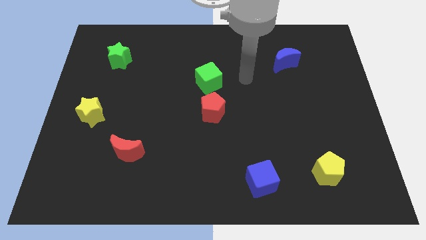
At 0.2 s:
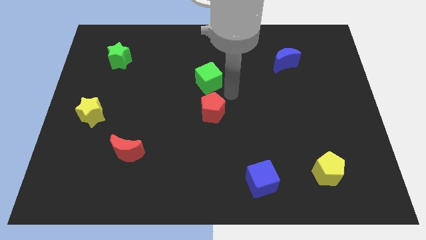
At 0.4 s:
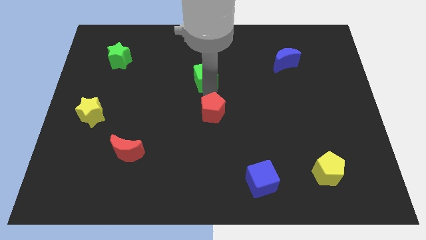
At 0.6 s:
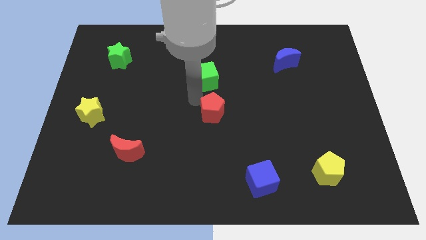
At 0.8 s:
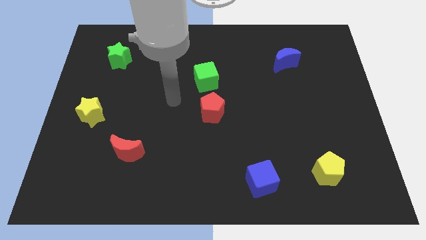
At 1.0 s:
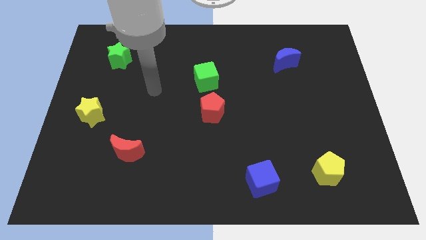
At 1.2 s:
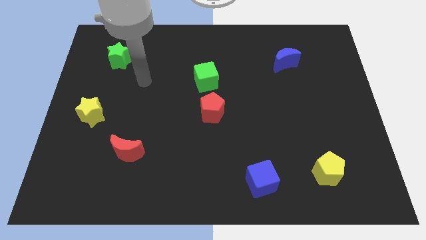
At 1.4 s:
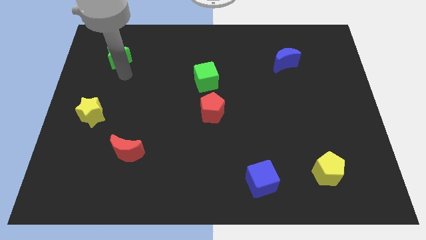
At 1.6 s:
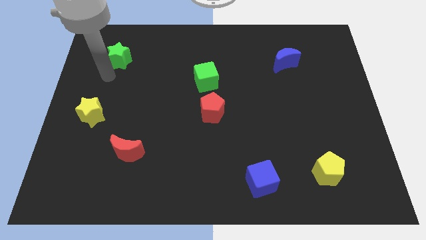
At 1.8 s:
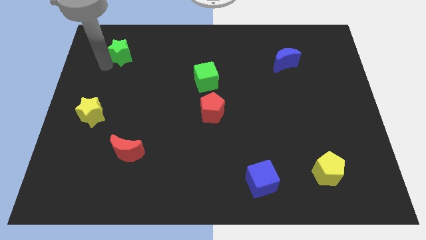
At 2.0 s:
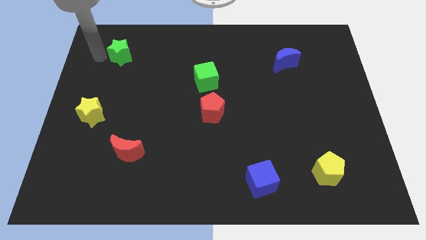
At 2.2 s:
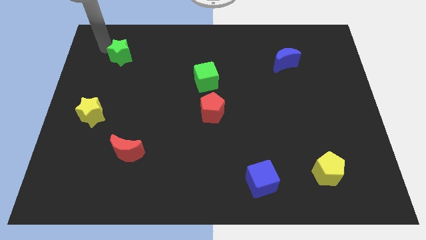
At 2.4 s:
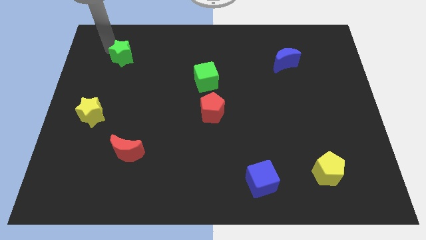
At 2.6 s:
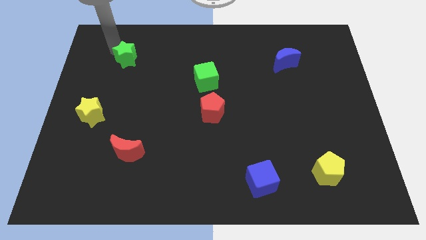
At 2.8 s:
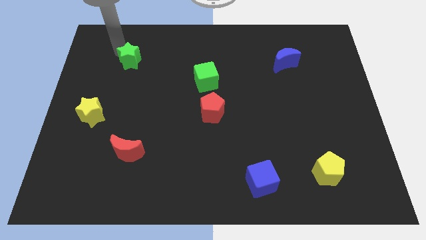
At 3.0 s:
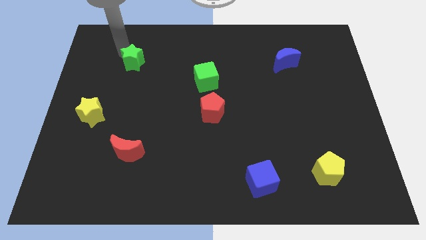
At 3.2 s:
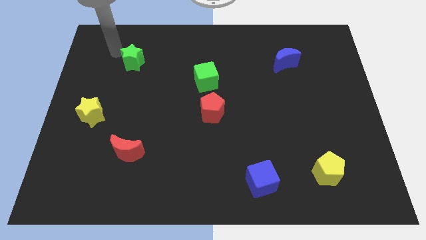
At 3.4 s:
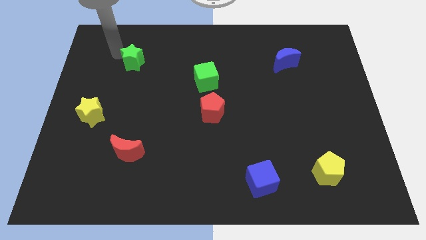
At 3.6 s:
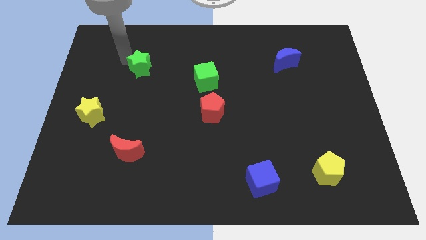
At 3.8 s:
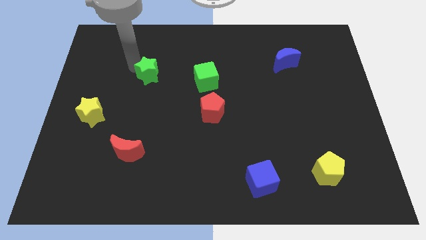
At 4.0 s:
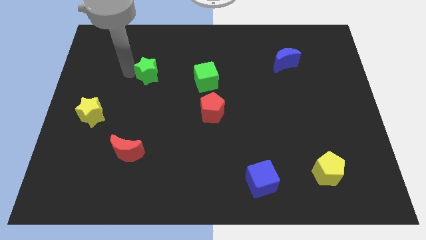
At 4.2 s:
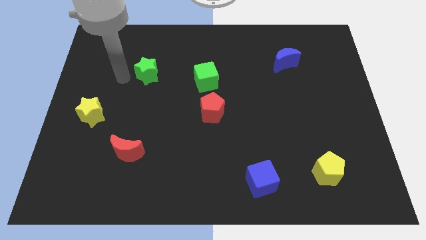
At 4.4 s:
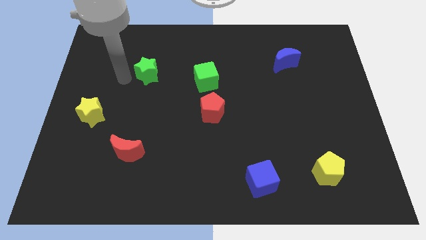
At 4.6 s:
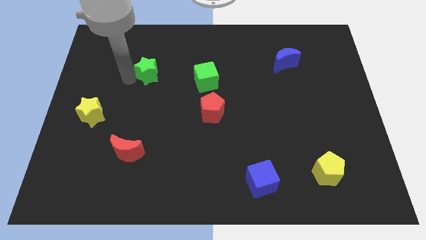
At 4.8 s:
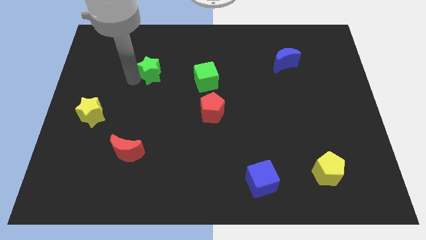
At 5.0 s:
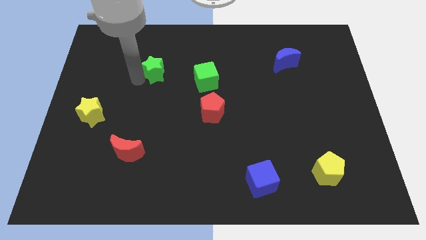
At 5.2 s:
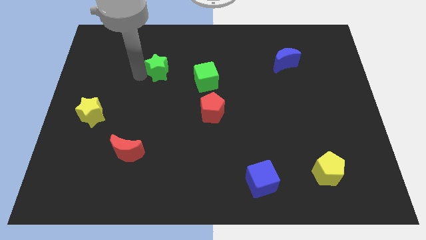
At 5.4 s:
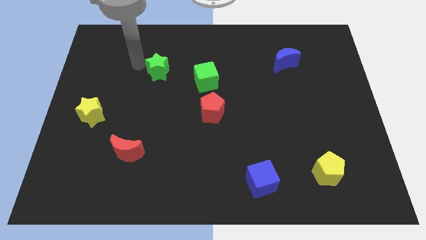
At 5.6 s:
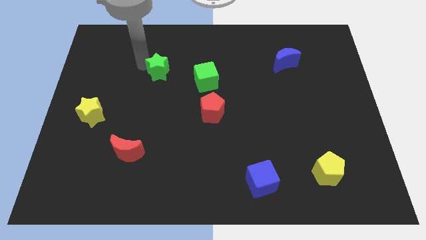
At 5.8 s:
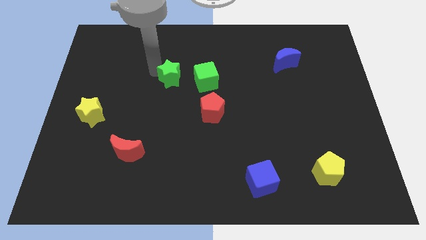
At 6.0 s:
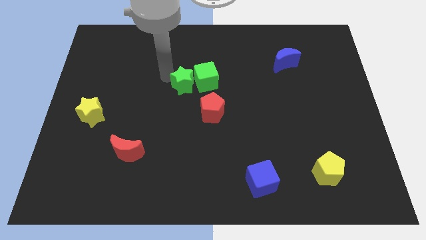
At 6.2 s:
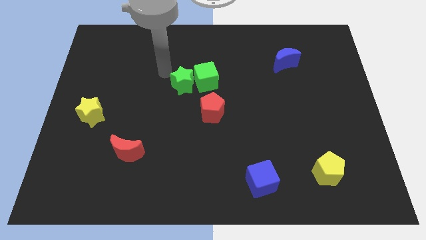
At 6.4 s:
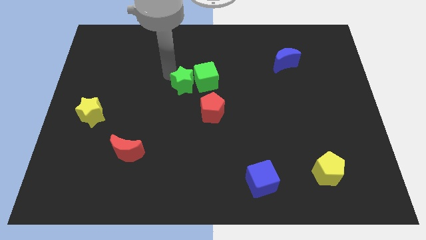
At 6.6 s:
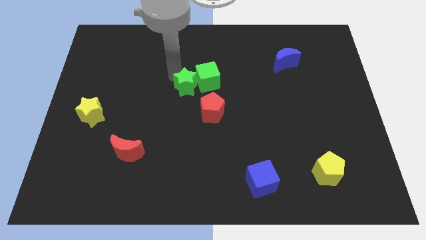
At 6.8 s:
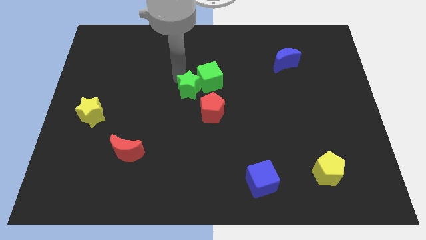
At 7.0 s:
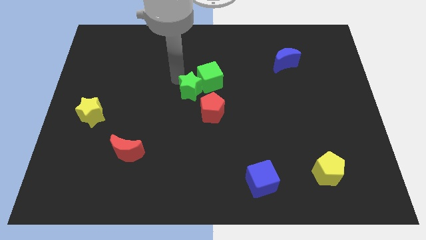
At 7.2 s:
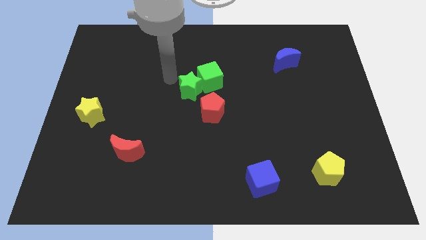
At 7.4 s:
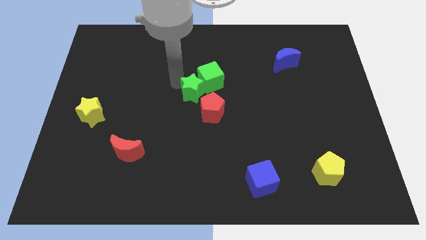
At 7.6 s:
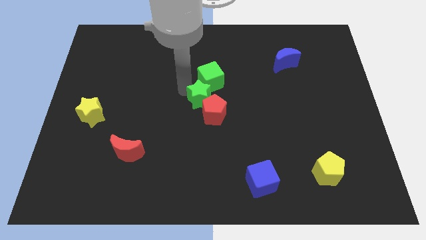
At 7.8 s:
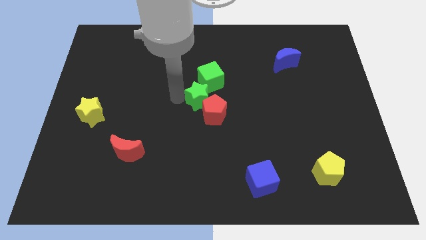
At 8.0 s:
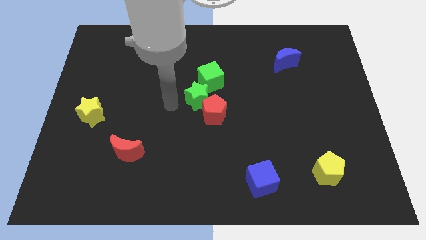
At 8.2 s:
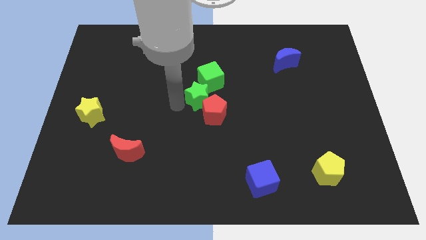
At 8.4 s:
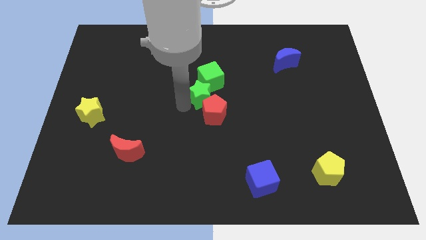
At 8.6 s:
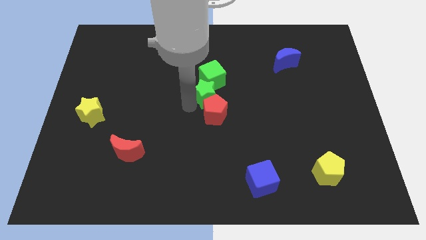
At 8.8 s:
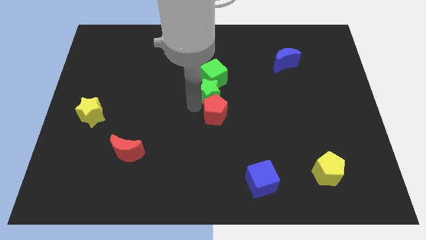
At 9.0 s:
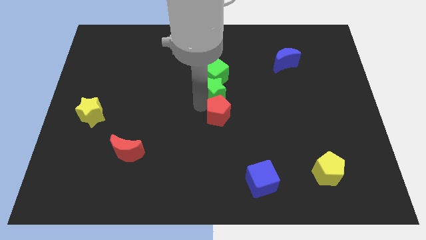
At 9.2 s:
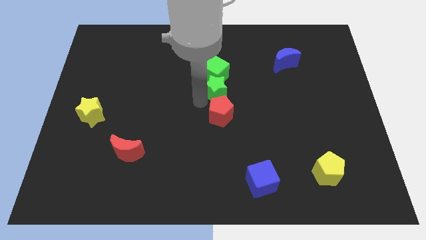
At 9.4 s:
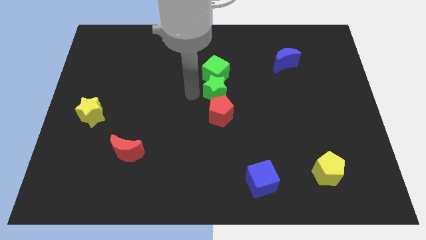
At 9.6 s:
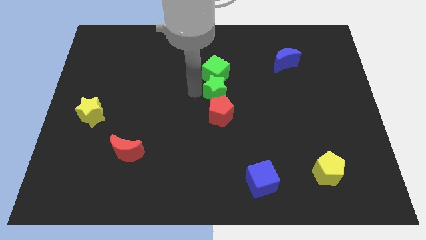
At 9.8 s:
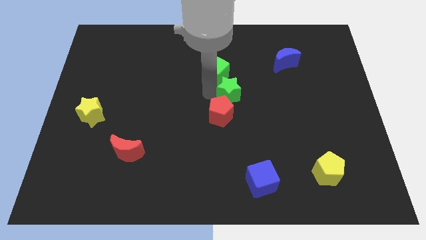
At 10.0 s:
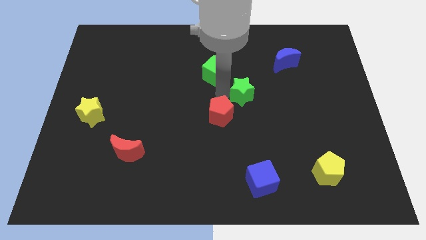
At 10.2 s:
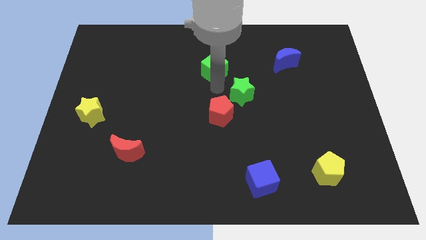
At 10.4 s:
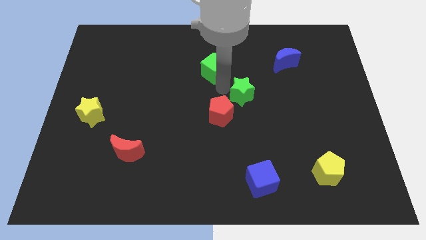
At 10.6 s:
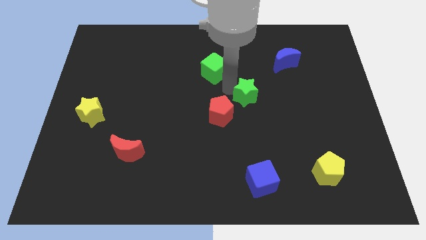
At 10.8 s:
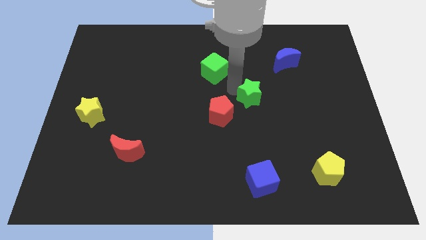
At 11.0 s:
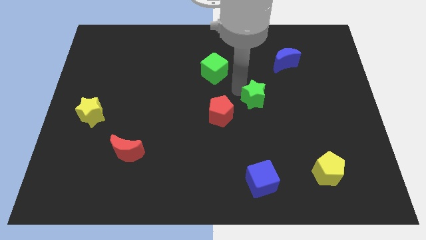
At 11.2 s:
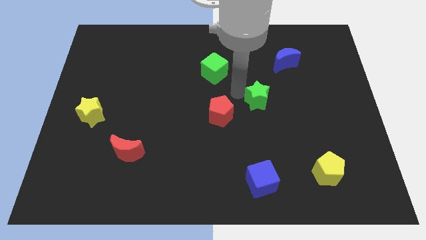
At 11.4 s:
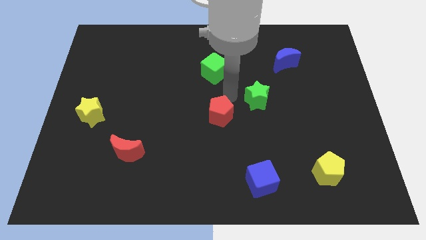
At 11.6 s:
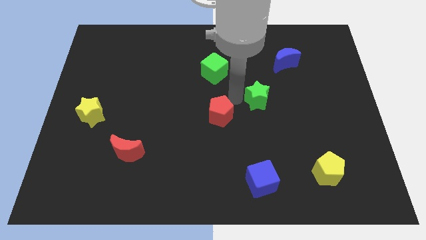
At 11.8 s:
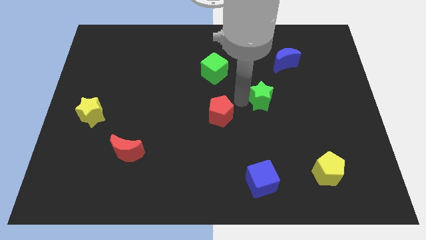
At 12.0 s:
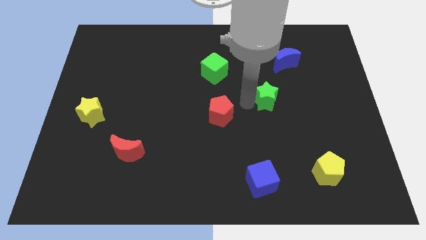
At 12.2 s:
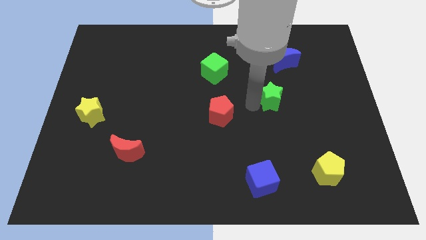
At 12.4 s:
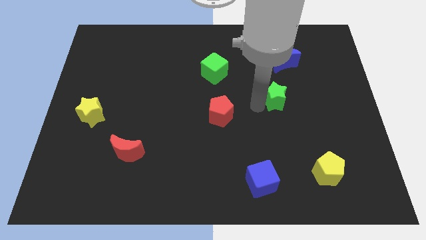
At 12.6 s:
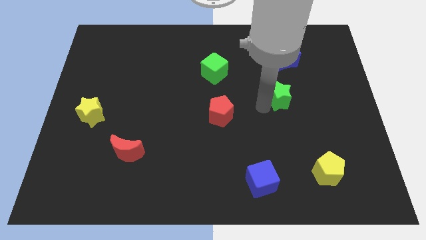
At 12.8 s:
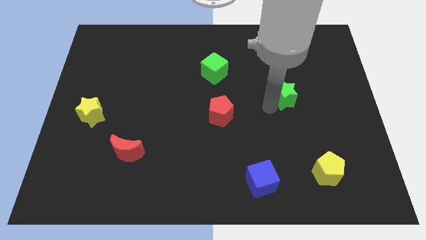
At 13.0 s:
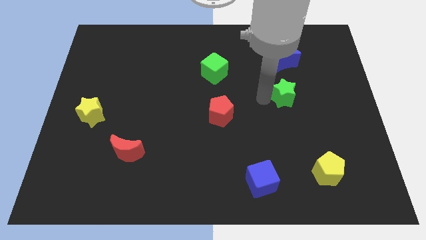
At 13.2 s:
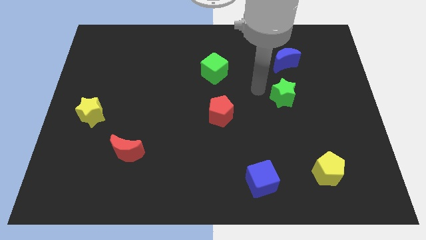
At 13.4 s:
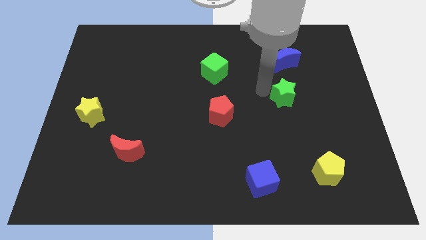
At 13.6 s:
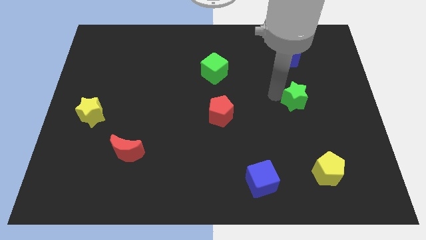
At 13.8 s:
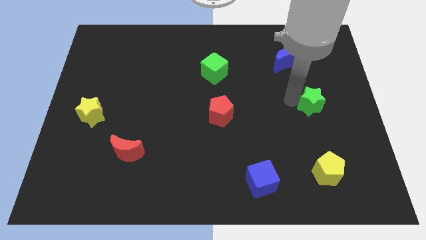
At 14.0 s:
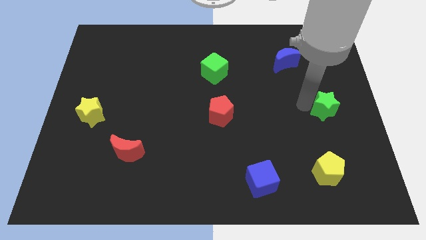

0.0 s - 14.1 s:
put the green star to the right side
